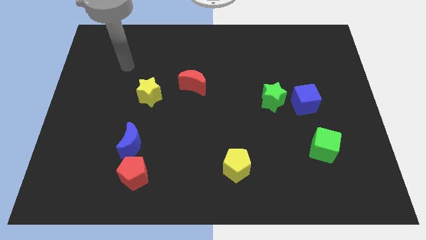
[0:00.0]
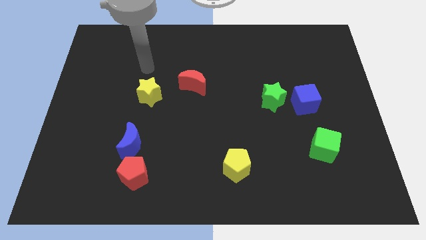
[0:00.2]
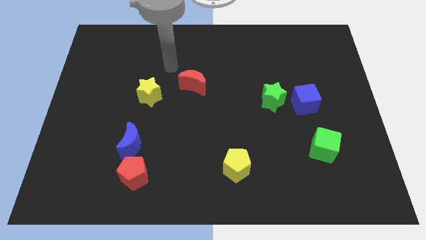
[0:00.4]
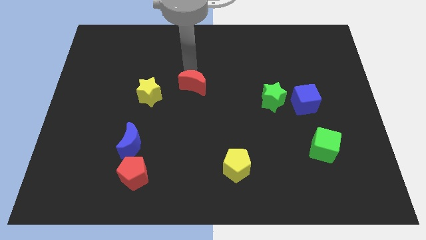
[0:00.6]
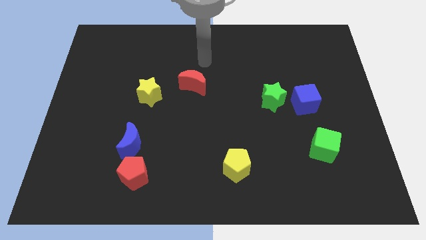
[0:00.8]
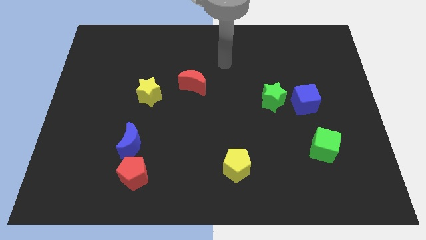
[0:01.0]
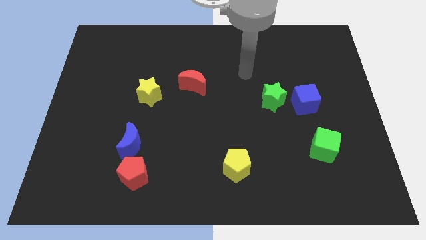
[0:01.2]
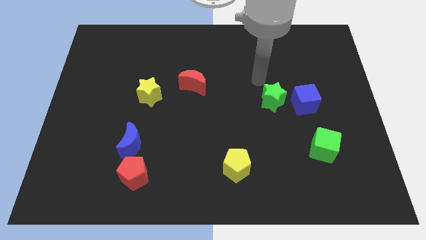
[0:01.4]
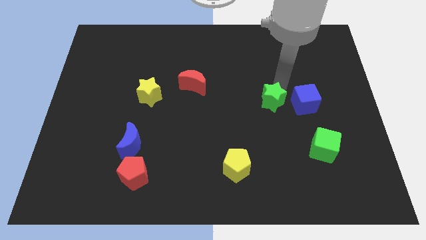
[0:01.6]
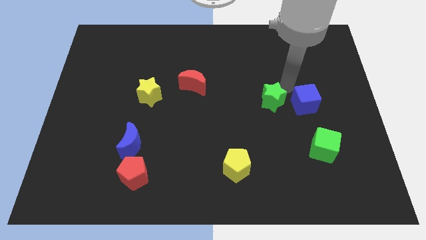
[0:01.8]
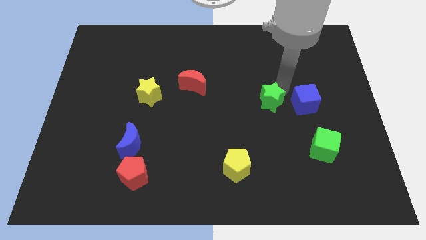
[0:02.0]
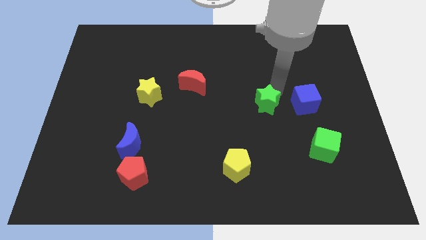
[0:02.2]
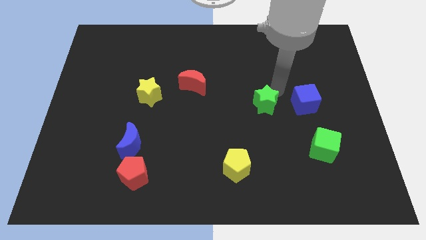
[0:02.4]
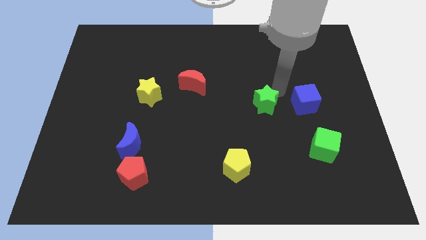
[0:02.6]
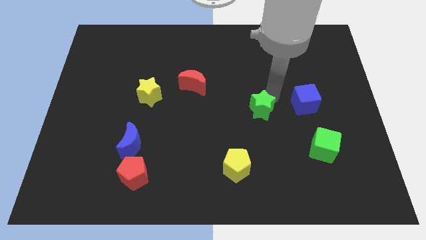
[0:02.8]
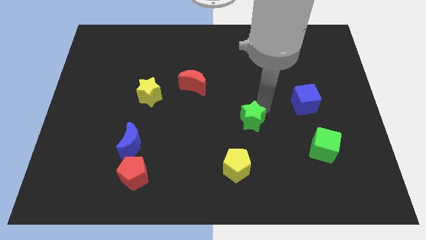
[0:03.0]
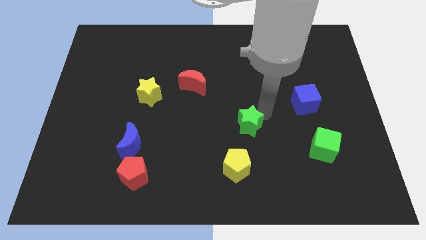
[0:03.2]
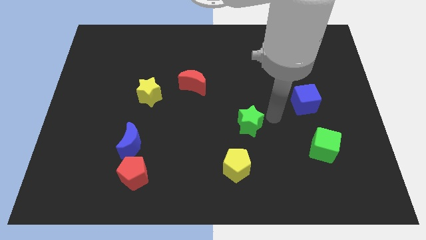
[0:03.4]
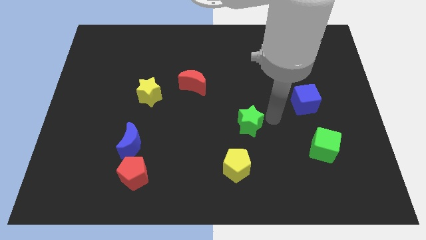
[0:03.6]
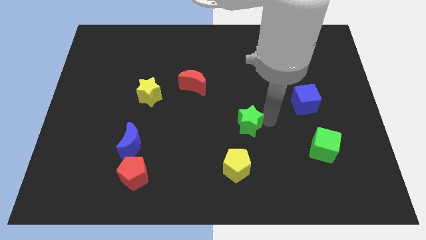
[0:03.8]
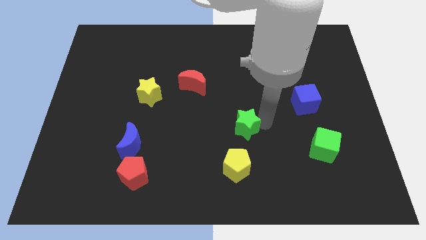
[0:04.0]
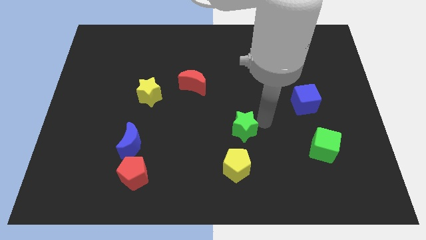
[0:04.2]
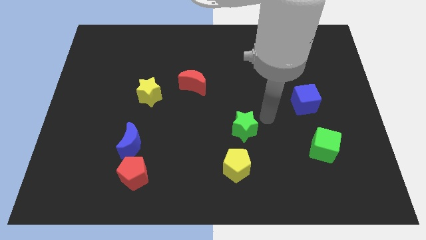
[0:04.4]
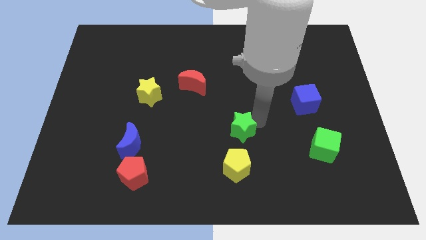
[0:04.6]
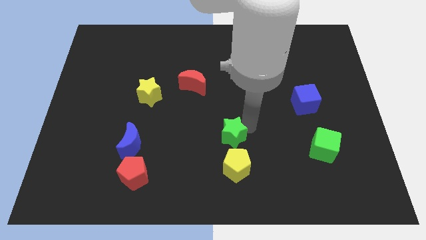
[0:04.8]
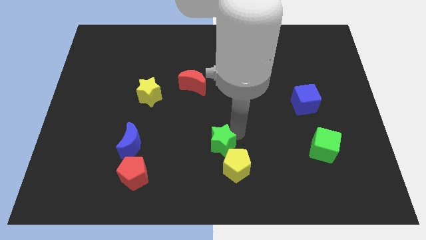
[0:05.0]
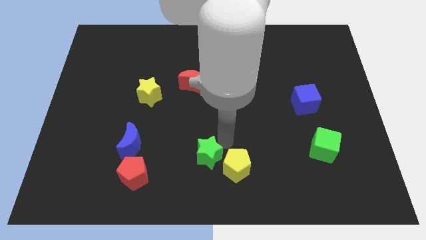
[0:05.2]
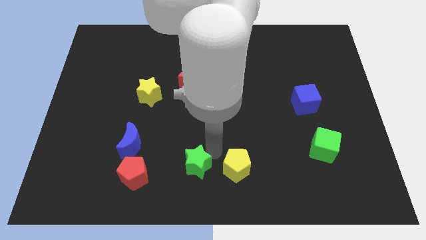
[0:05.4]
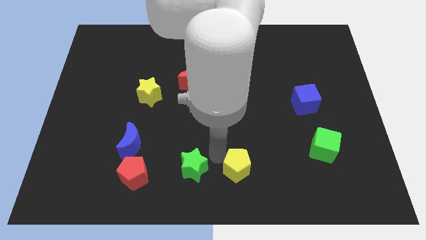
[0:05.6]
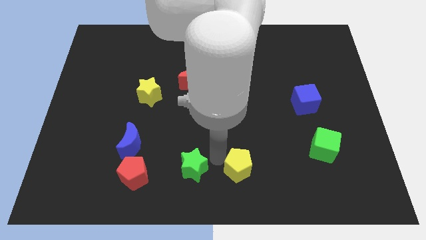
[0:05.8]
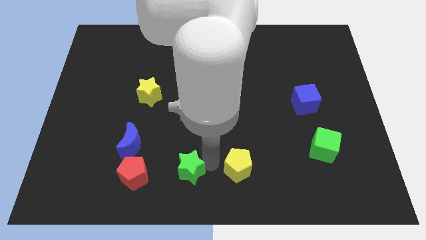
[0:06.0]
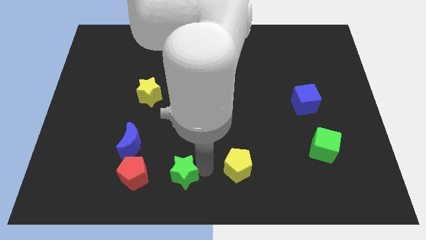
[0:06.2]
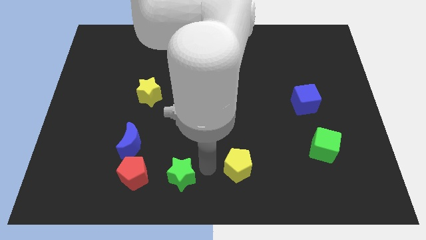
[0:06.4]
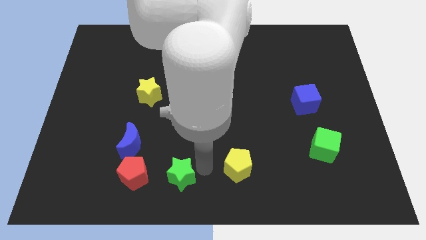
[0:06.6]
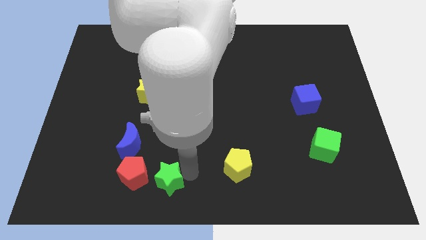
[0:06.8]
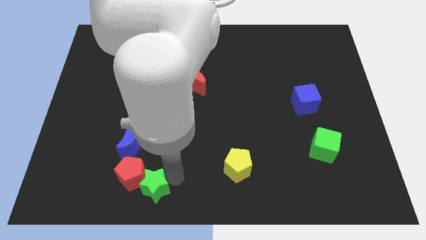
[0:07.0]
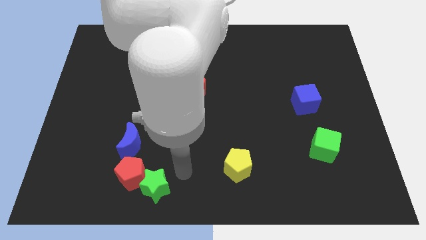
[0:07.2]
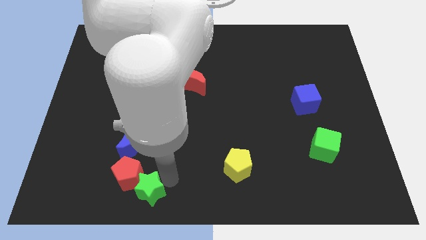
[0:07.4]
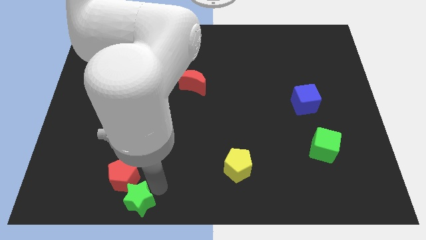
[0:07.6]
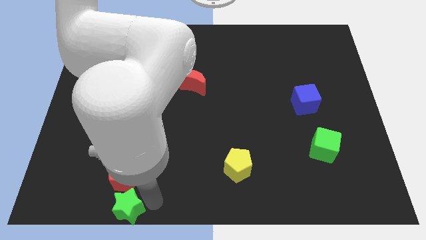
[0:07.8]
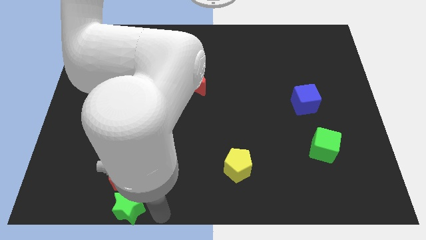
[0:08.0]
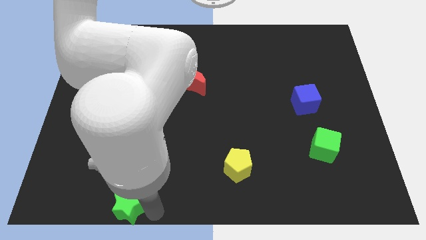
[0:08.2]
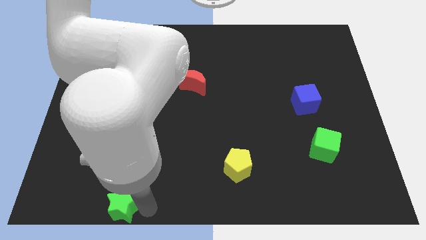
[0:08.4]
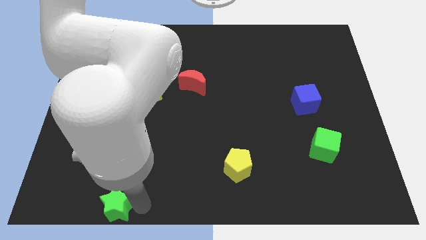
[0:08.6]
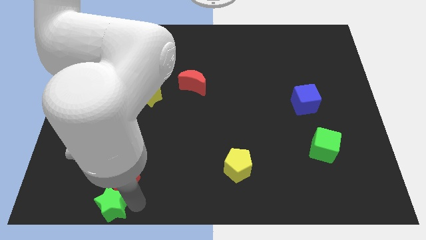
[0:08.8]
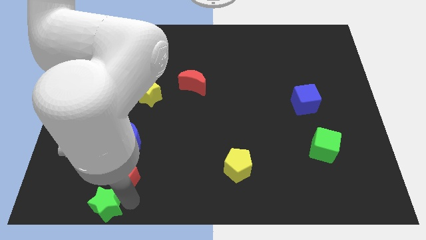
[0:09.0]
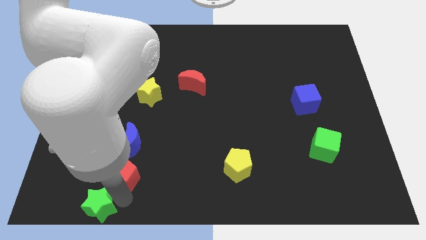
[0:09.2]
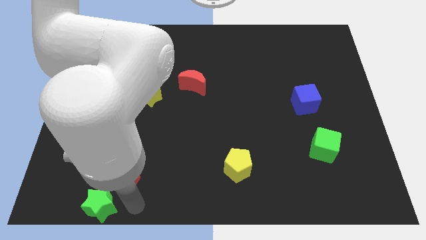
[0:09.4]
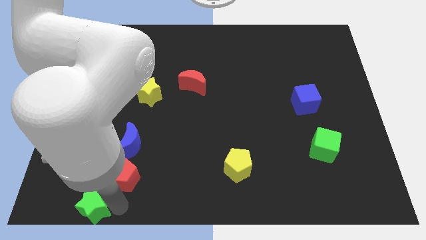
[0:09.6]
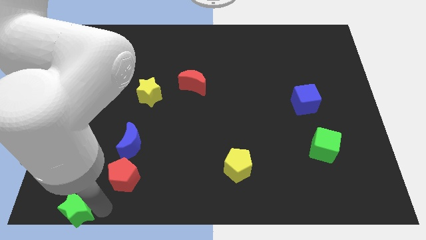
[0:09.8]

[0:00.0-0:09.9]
put the green star to the bottom left
